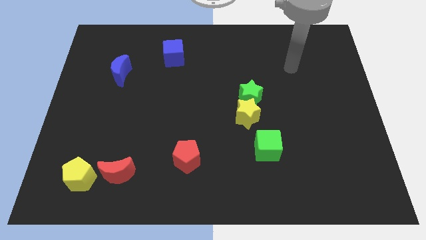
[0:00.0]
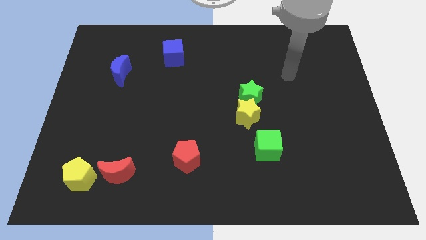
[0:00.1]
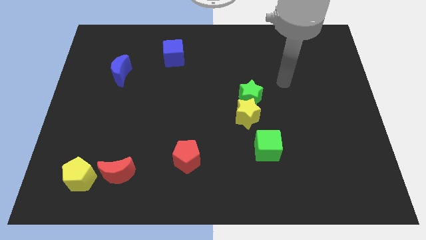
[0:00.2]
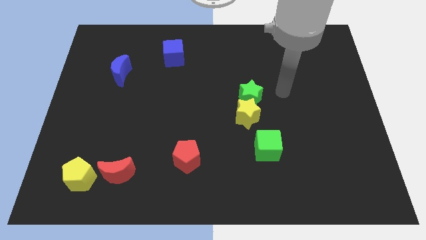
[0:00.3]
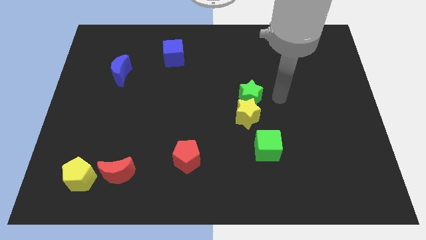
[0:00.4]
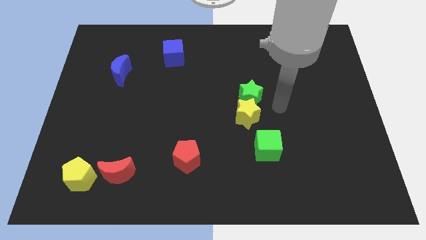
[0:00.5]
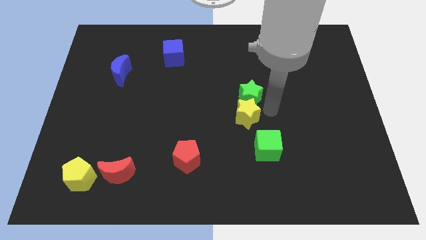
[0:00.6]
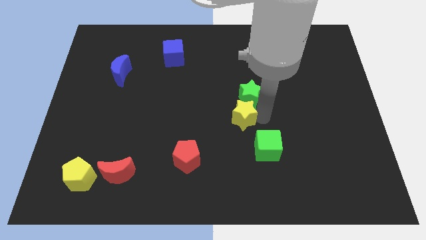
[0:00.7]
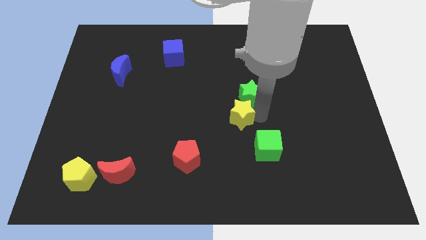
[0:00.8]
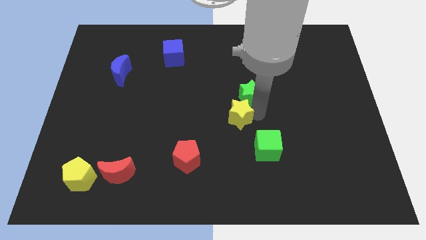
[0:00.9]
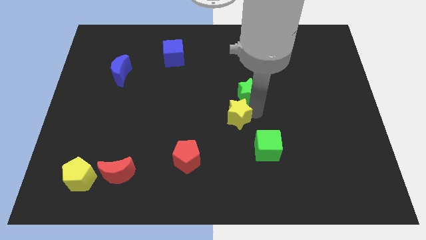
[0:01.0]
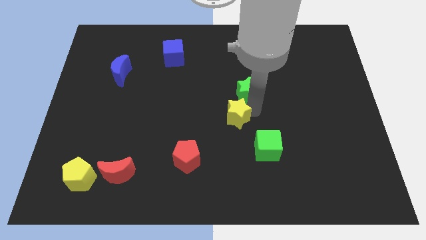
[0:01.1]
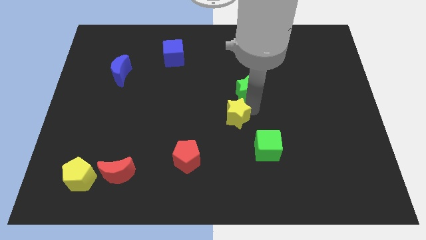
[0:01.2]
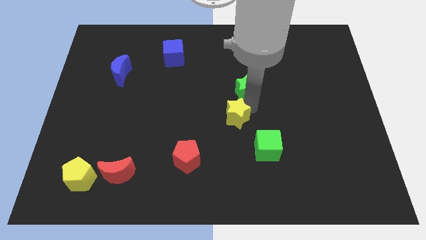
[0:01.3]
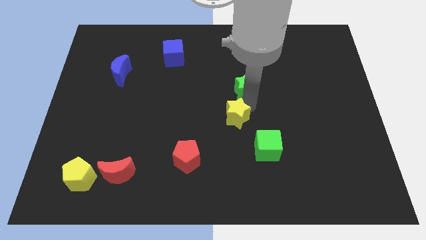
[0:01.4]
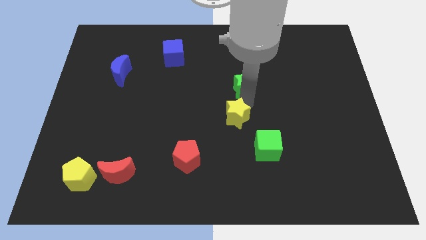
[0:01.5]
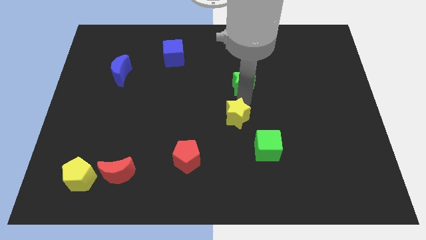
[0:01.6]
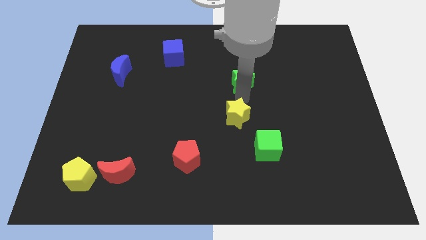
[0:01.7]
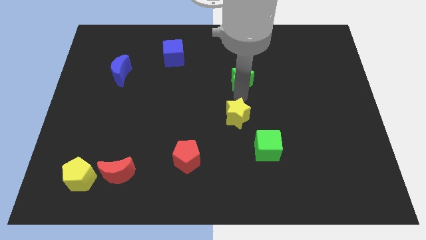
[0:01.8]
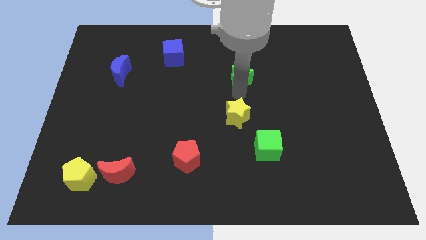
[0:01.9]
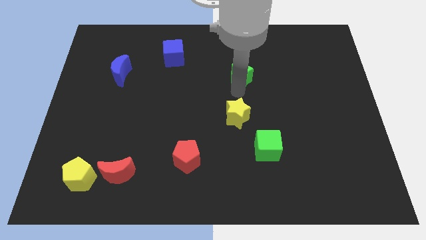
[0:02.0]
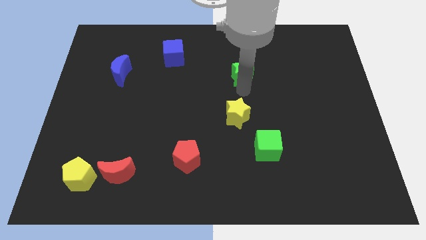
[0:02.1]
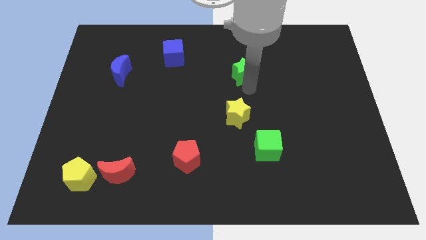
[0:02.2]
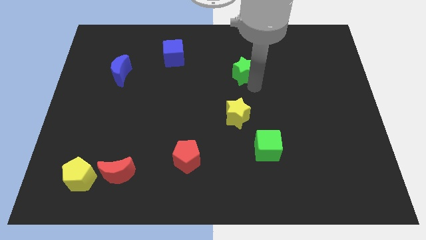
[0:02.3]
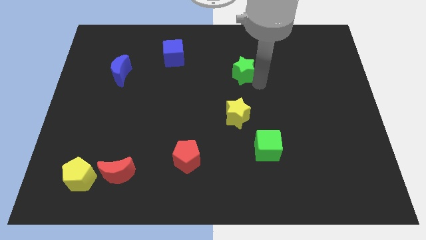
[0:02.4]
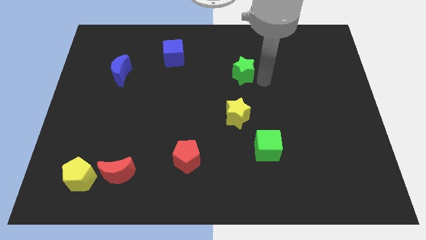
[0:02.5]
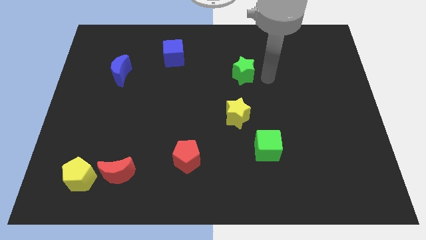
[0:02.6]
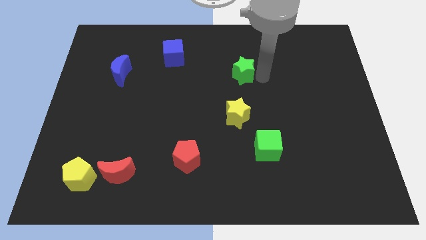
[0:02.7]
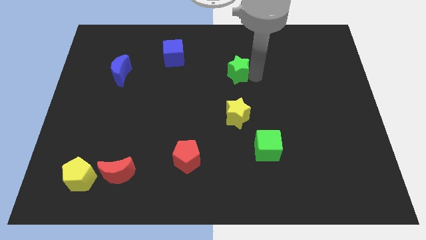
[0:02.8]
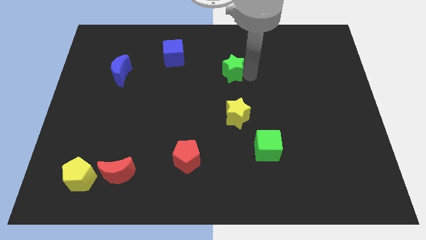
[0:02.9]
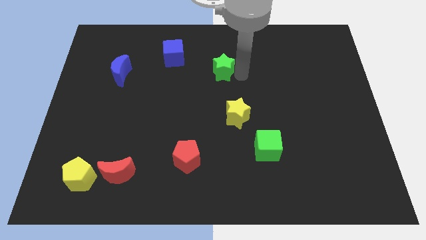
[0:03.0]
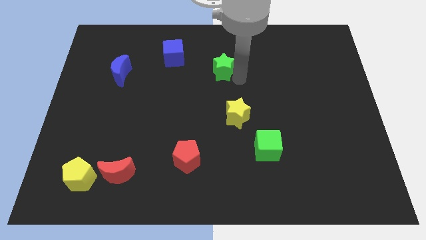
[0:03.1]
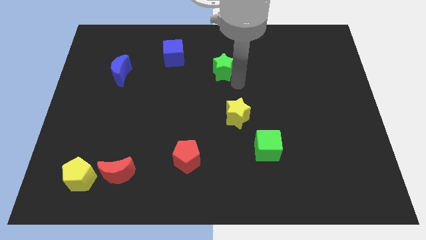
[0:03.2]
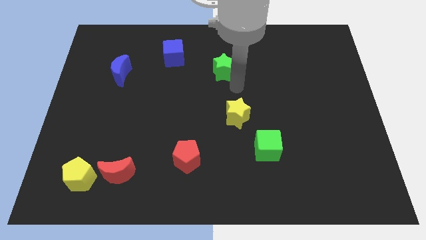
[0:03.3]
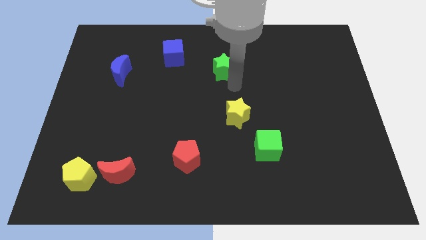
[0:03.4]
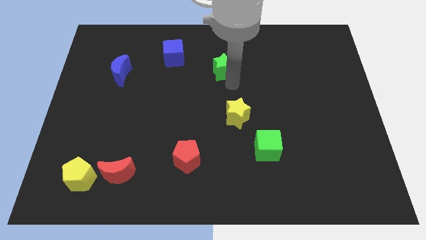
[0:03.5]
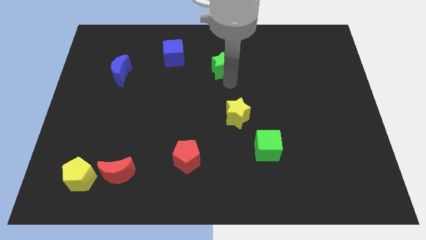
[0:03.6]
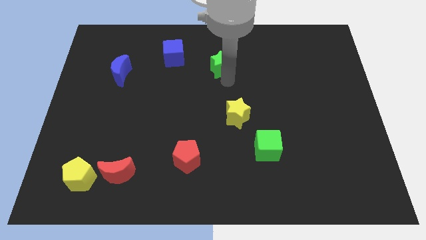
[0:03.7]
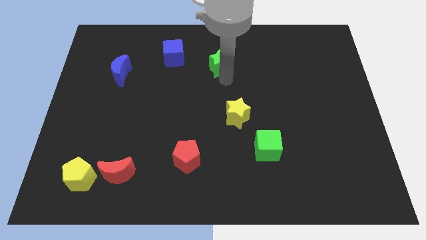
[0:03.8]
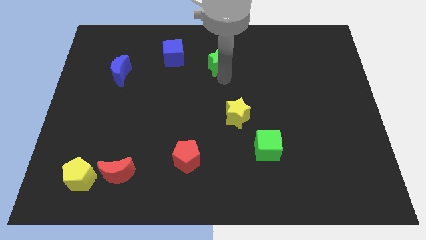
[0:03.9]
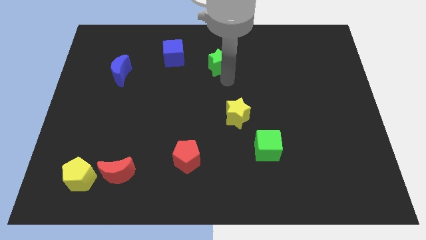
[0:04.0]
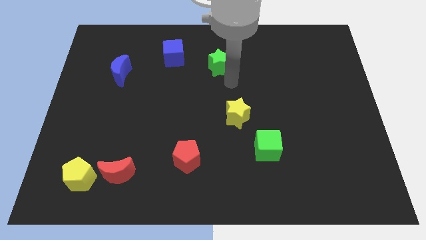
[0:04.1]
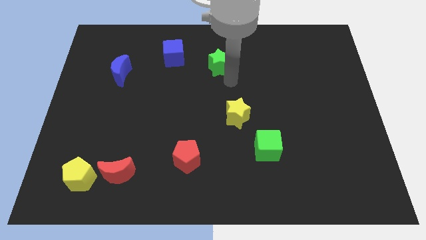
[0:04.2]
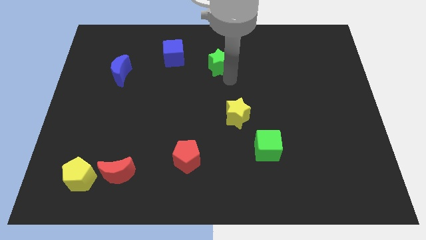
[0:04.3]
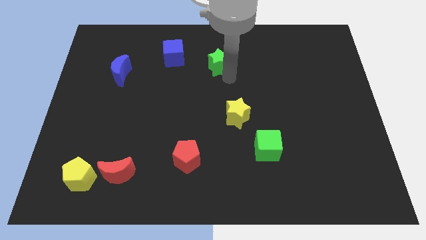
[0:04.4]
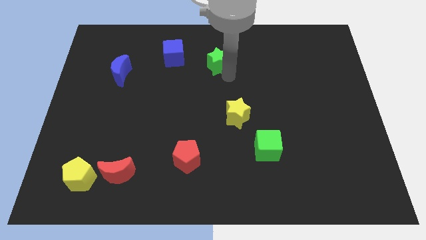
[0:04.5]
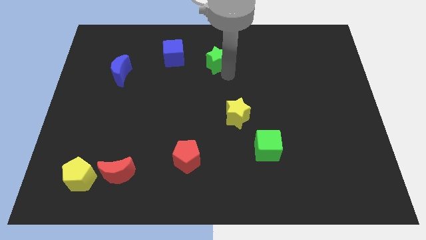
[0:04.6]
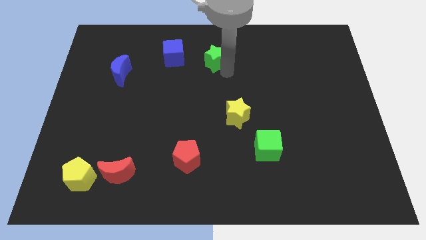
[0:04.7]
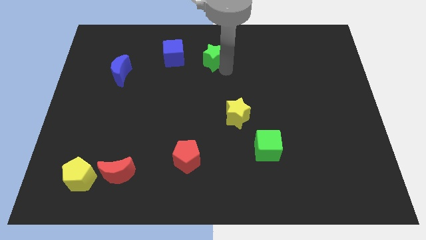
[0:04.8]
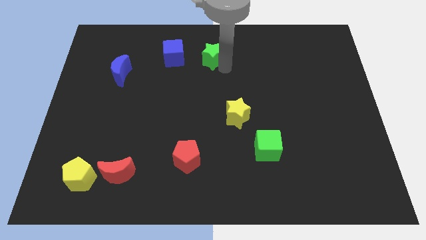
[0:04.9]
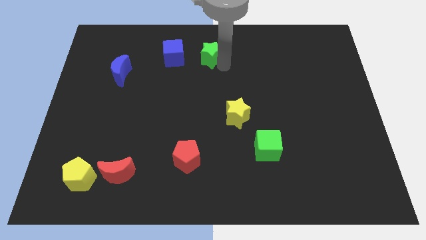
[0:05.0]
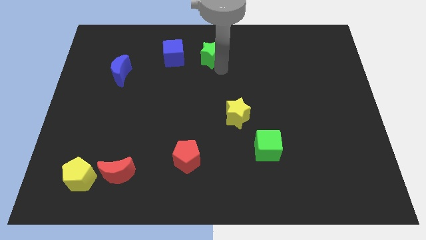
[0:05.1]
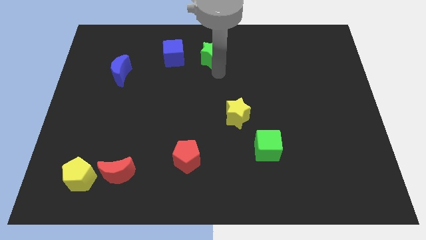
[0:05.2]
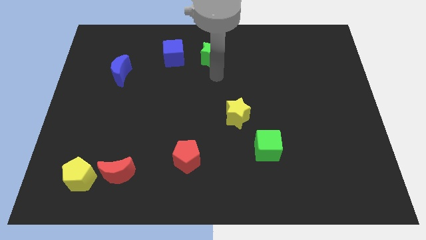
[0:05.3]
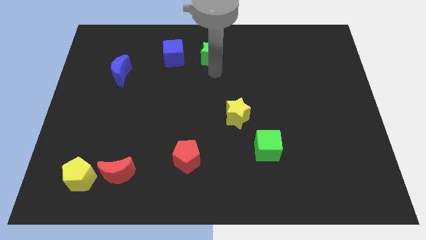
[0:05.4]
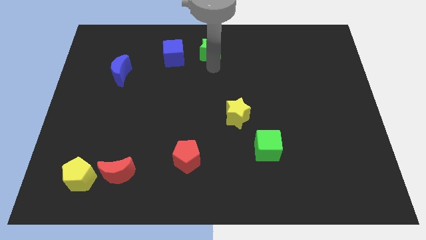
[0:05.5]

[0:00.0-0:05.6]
push the green star to the top

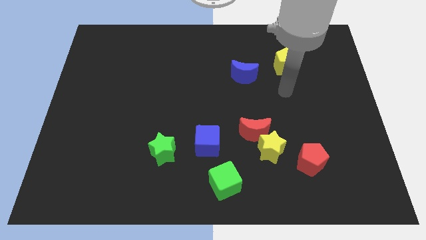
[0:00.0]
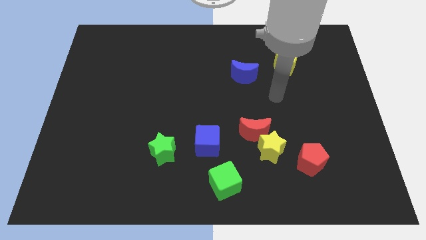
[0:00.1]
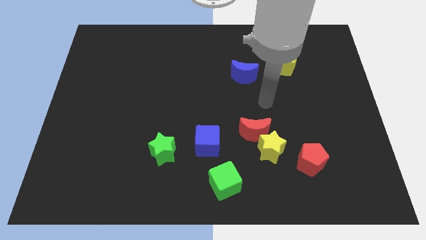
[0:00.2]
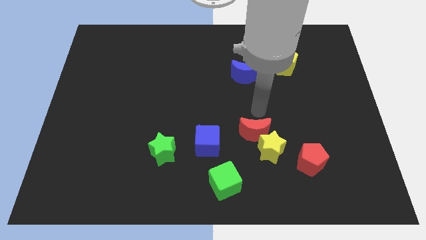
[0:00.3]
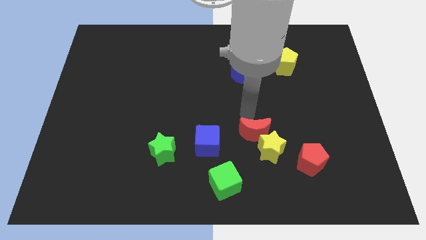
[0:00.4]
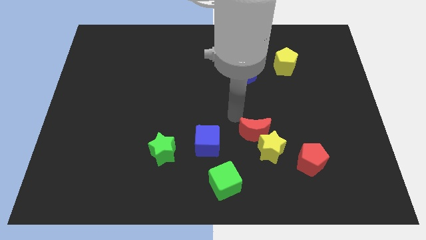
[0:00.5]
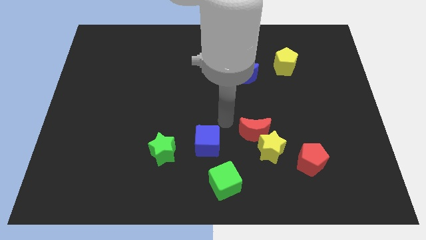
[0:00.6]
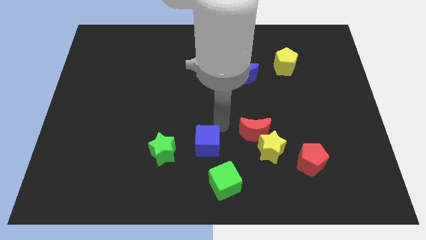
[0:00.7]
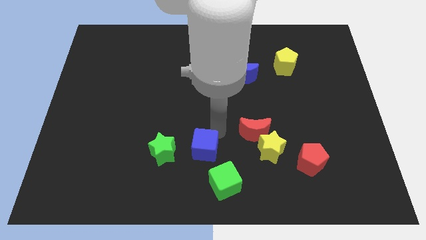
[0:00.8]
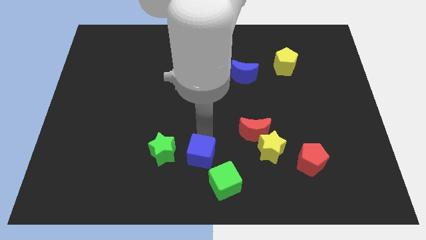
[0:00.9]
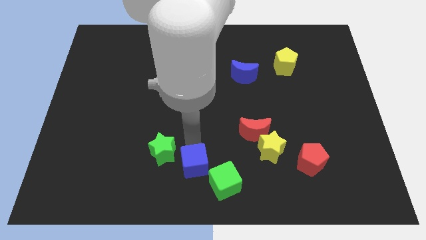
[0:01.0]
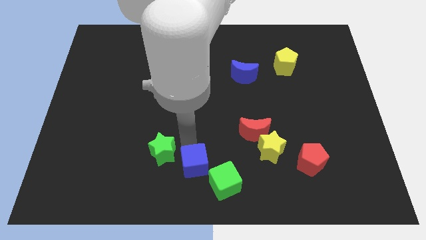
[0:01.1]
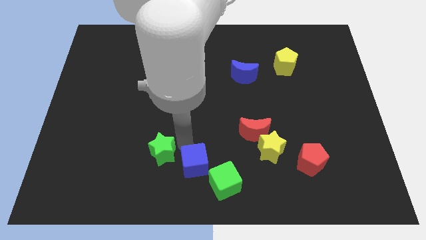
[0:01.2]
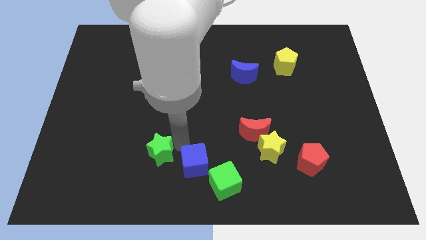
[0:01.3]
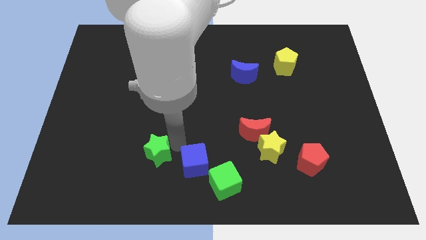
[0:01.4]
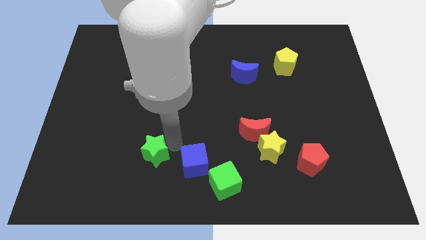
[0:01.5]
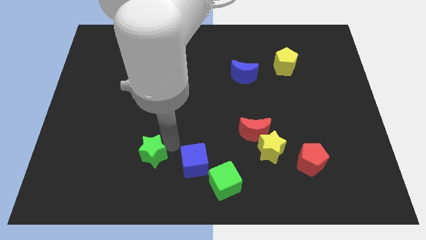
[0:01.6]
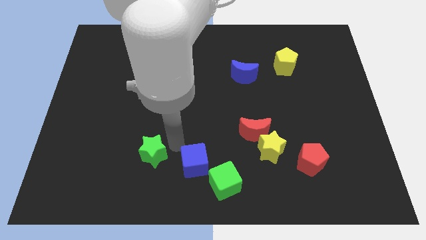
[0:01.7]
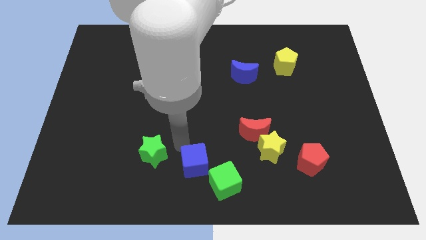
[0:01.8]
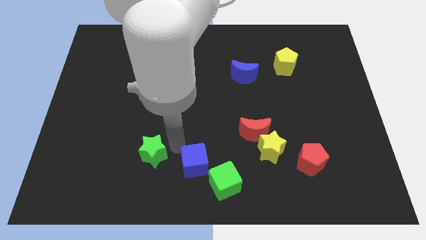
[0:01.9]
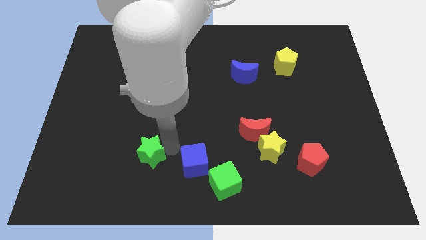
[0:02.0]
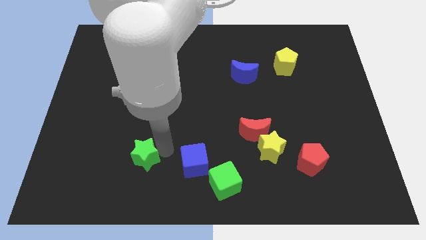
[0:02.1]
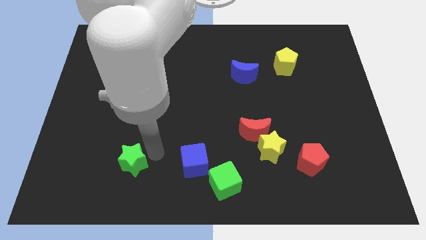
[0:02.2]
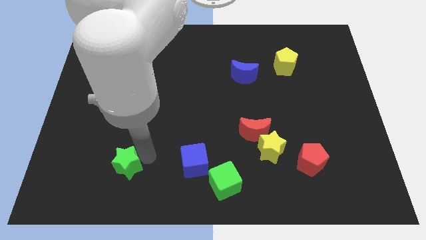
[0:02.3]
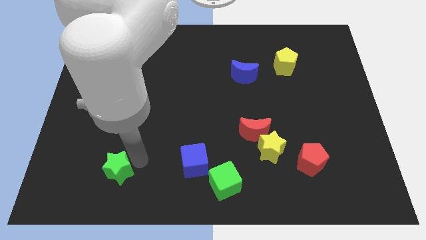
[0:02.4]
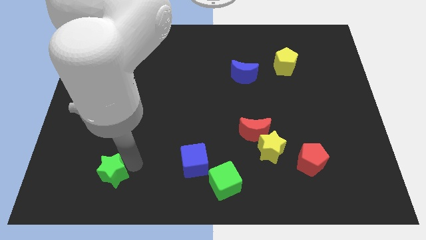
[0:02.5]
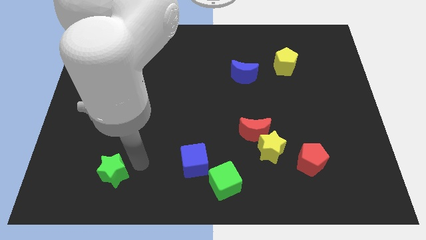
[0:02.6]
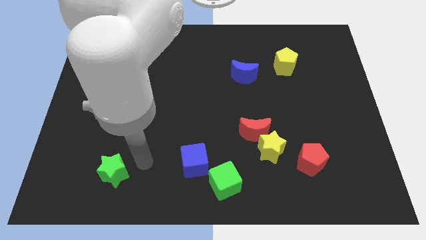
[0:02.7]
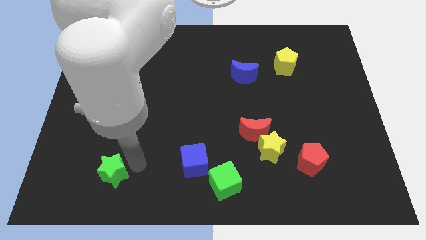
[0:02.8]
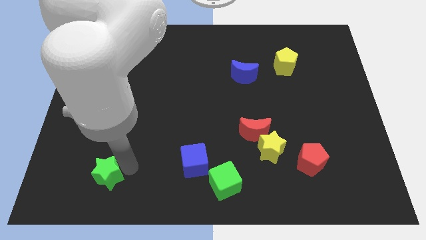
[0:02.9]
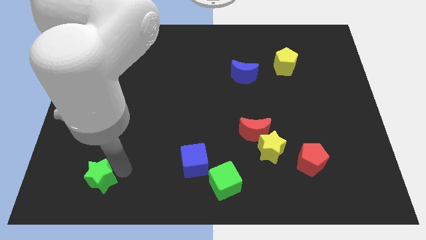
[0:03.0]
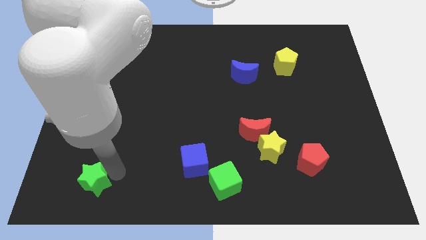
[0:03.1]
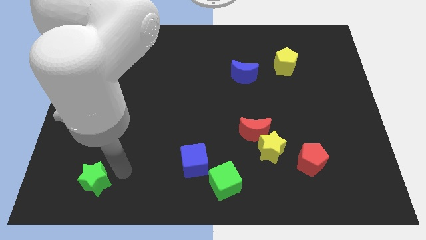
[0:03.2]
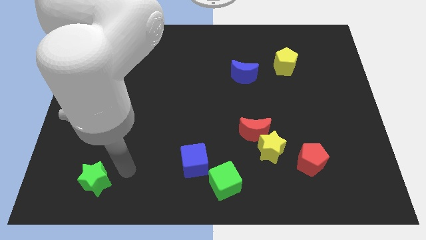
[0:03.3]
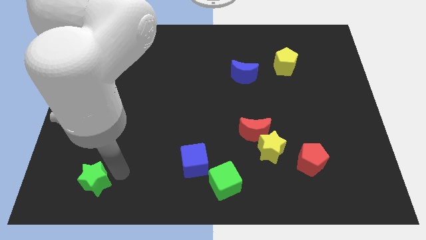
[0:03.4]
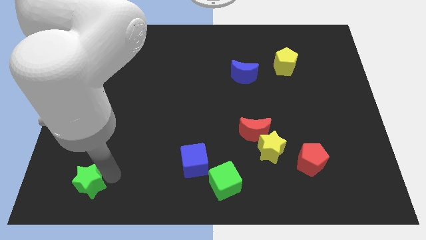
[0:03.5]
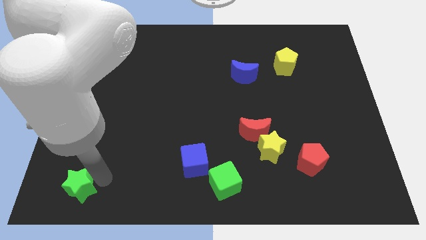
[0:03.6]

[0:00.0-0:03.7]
move the green star to the bottom left of the board
